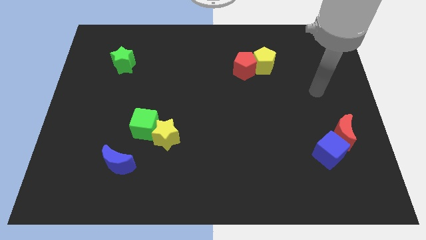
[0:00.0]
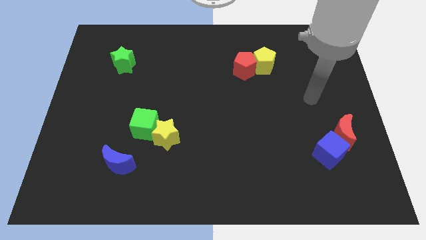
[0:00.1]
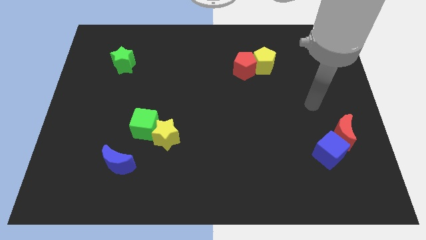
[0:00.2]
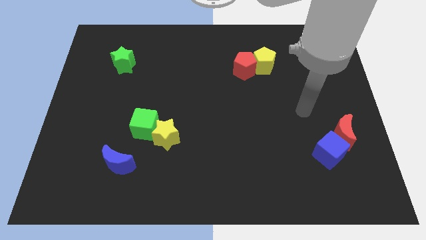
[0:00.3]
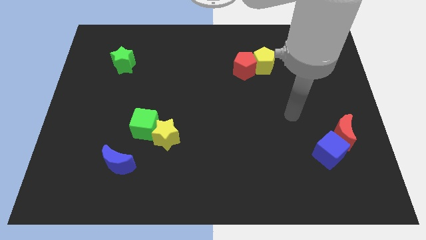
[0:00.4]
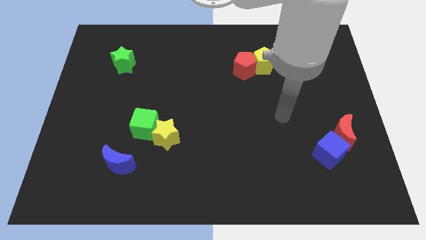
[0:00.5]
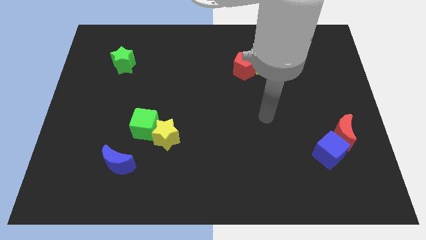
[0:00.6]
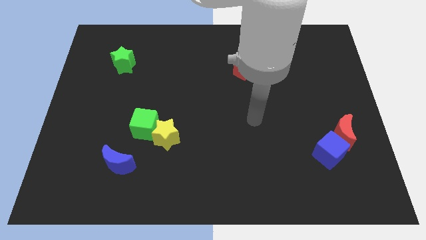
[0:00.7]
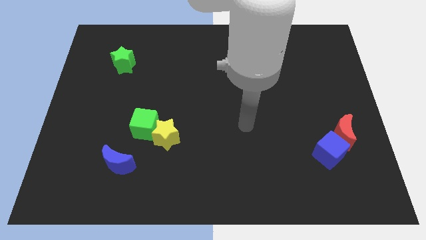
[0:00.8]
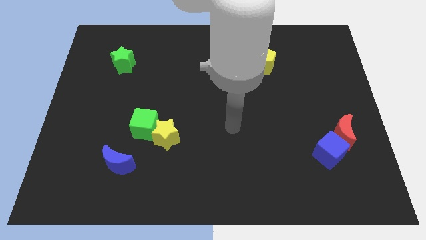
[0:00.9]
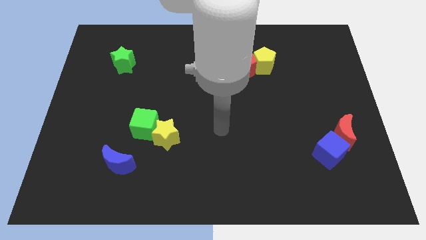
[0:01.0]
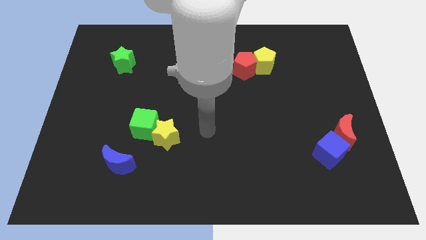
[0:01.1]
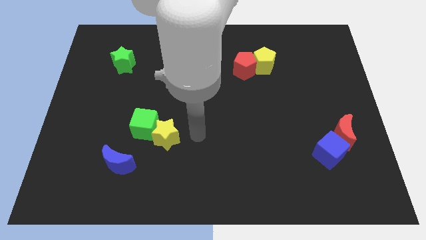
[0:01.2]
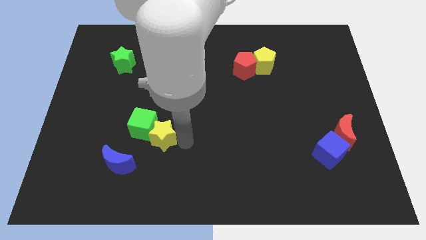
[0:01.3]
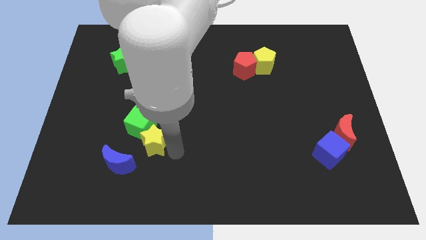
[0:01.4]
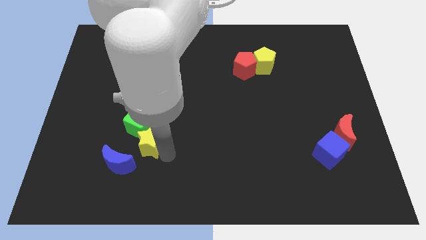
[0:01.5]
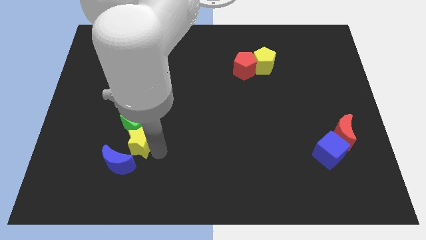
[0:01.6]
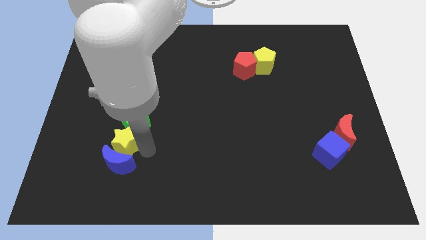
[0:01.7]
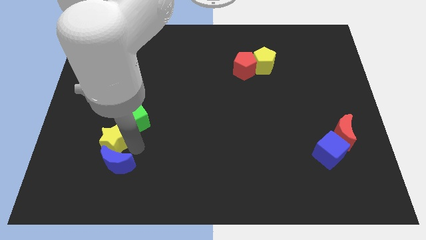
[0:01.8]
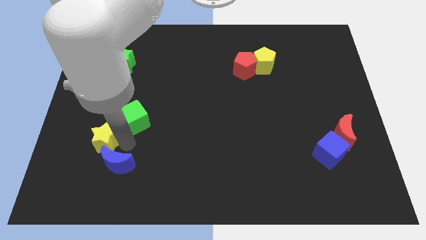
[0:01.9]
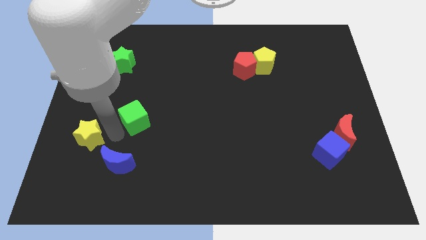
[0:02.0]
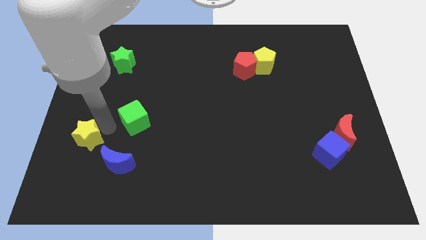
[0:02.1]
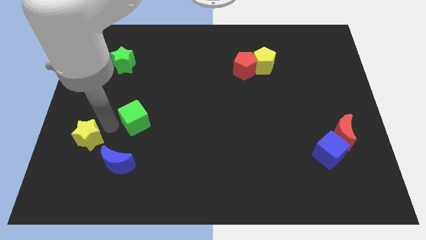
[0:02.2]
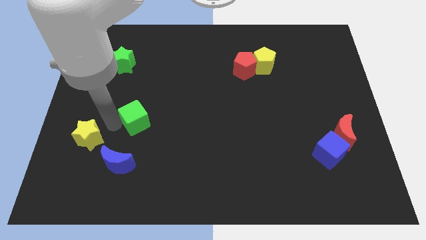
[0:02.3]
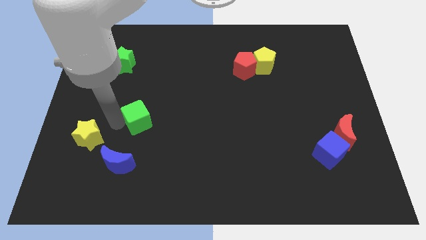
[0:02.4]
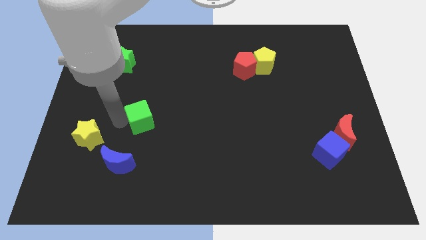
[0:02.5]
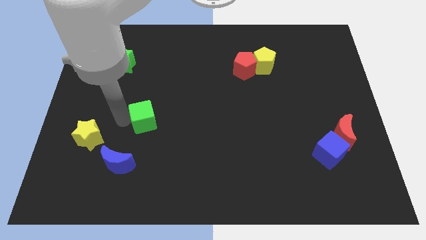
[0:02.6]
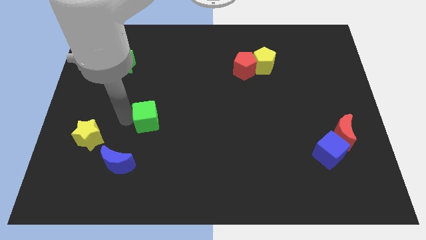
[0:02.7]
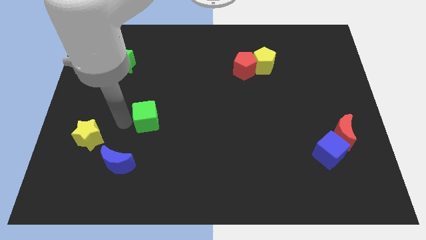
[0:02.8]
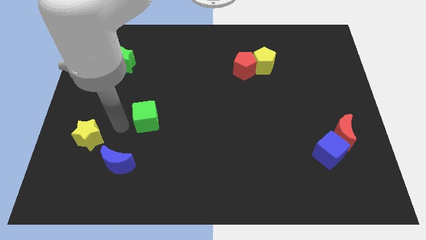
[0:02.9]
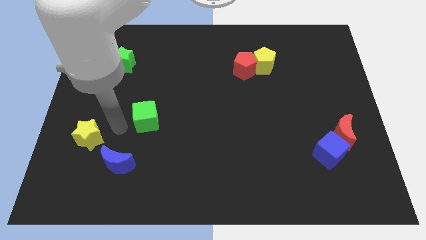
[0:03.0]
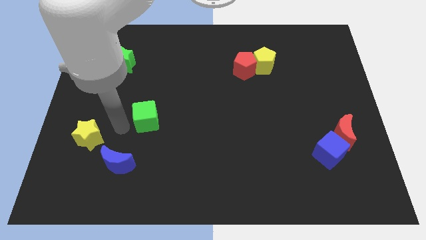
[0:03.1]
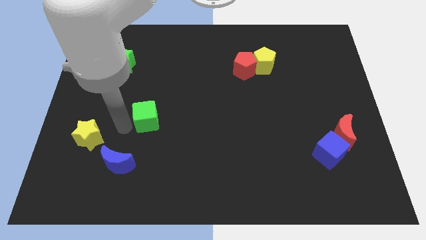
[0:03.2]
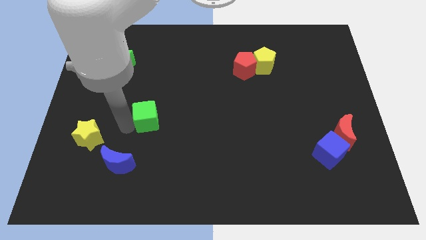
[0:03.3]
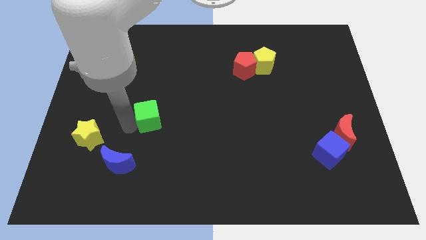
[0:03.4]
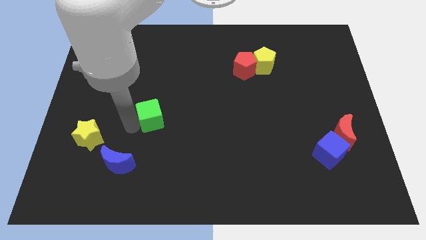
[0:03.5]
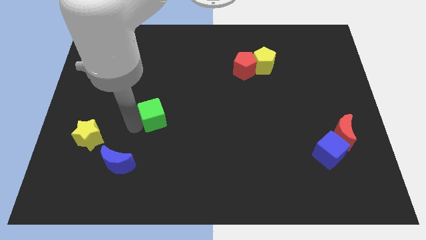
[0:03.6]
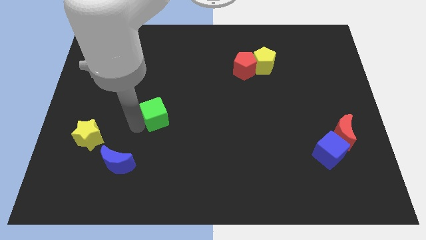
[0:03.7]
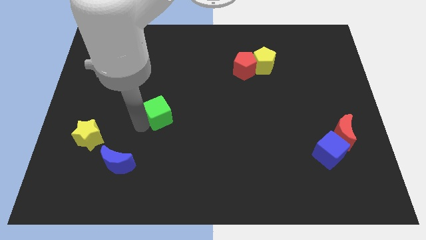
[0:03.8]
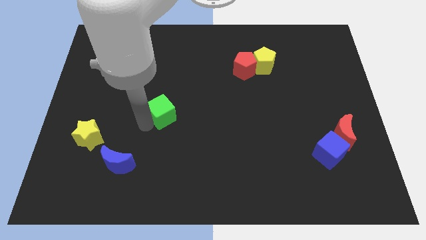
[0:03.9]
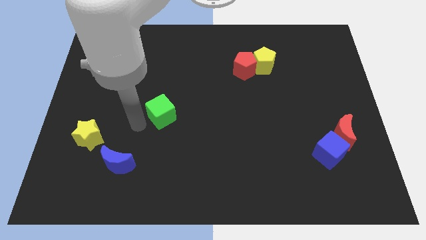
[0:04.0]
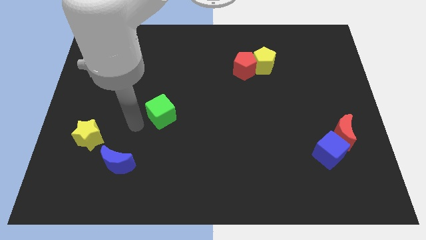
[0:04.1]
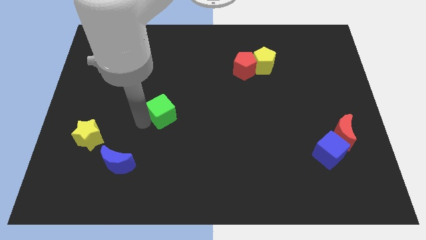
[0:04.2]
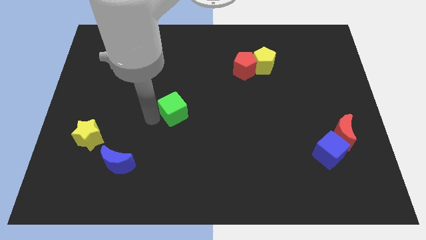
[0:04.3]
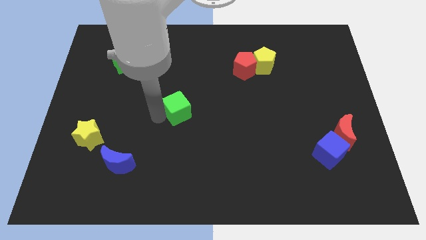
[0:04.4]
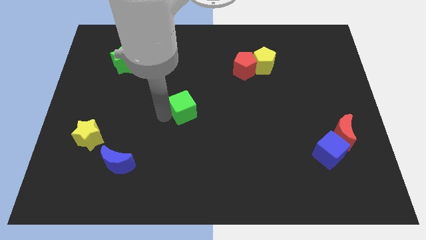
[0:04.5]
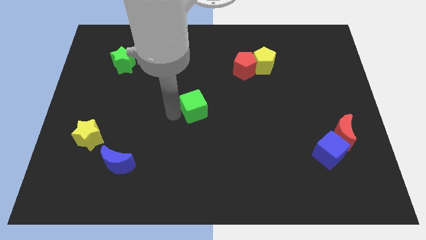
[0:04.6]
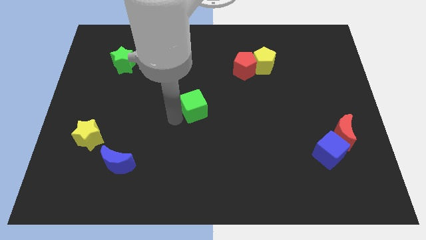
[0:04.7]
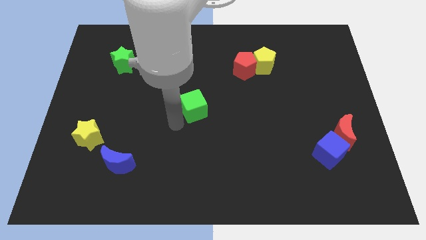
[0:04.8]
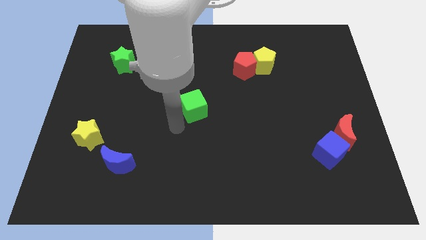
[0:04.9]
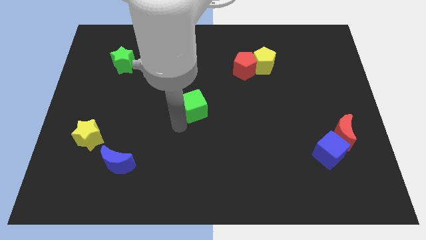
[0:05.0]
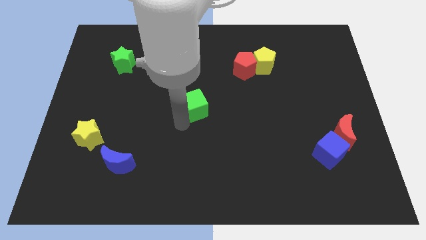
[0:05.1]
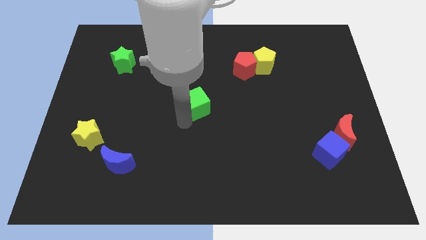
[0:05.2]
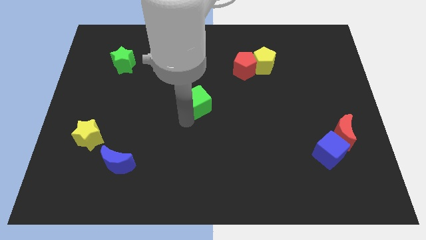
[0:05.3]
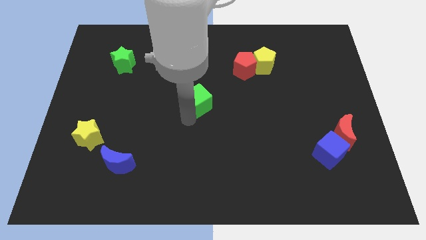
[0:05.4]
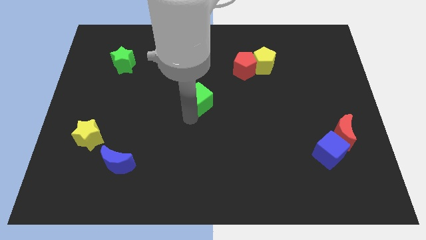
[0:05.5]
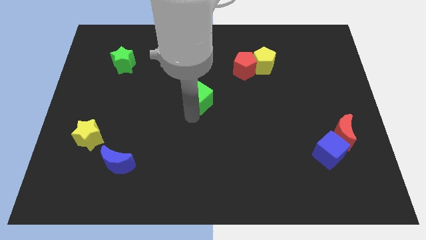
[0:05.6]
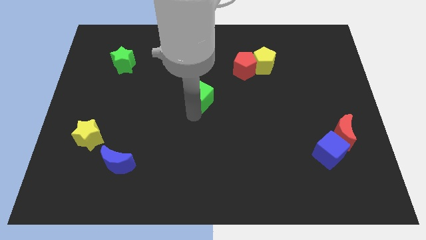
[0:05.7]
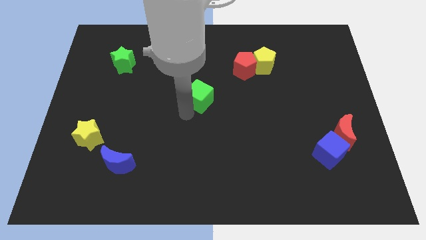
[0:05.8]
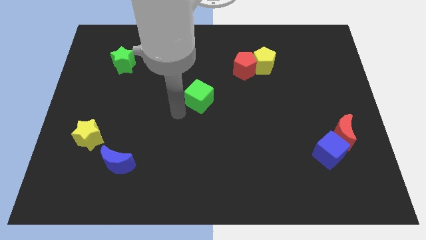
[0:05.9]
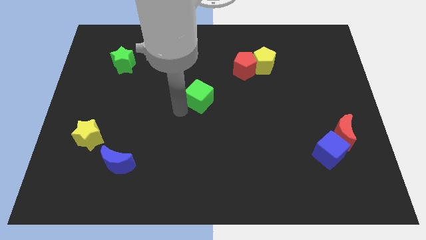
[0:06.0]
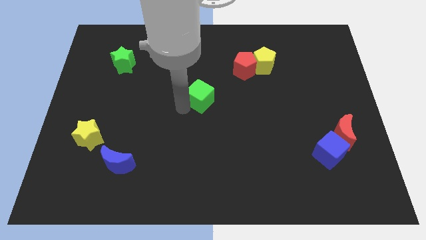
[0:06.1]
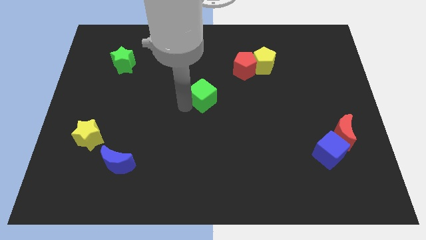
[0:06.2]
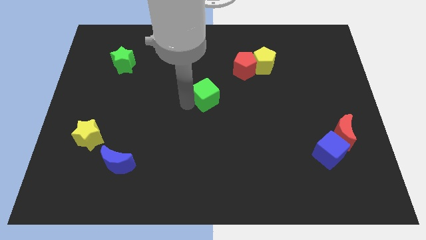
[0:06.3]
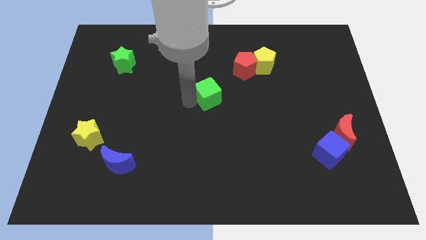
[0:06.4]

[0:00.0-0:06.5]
move the green cube to the bottom left side of the red pentagon

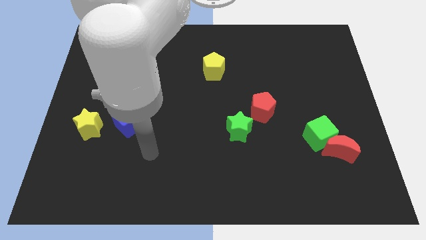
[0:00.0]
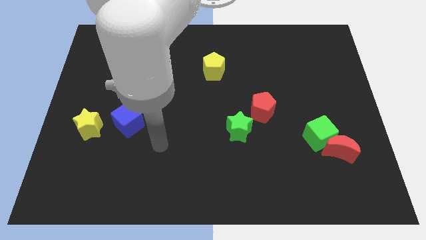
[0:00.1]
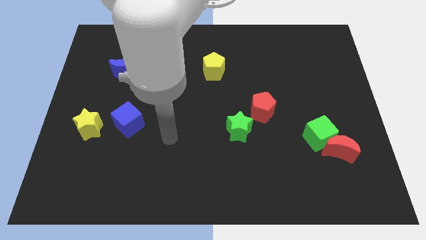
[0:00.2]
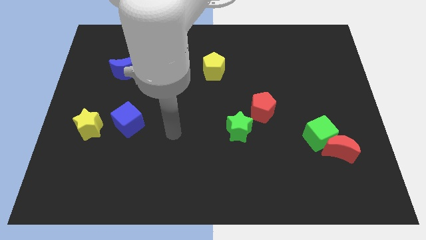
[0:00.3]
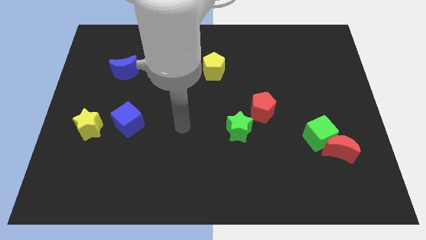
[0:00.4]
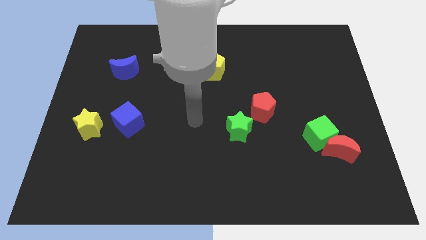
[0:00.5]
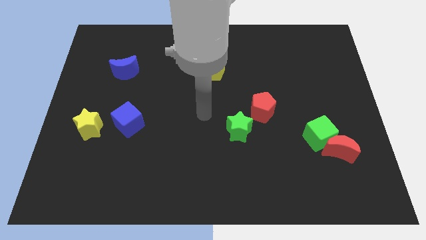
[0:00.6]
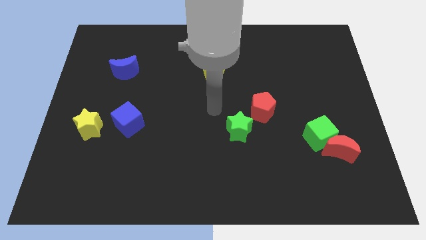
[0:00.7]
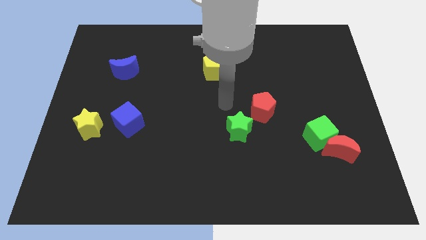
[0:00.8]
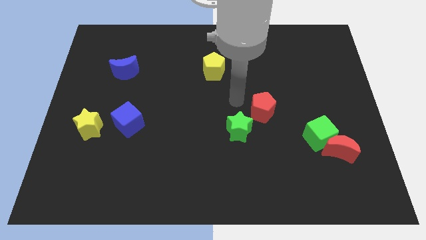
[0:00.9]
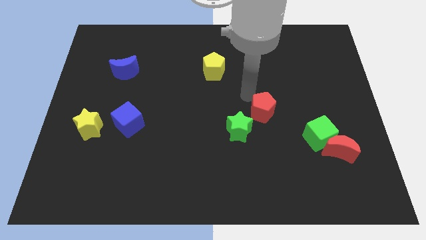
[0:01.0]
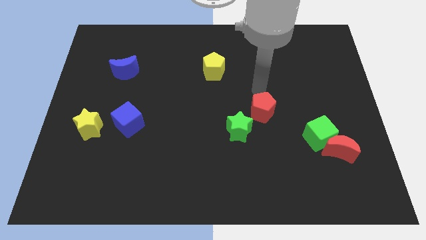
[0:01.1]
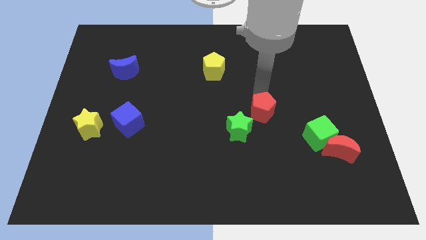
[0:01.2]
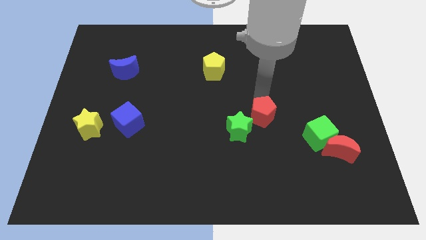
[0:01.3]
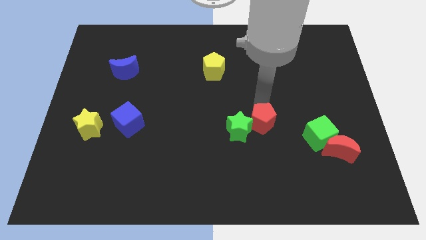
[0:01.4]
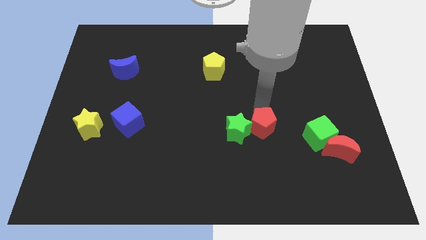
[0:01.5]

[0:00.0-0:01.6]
push the red pentagon diagonally down and to the right of the green star

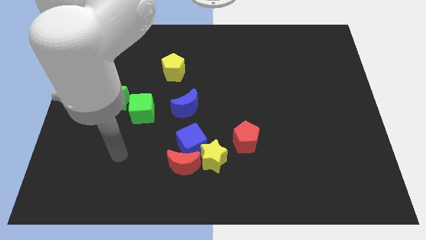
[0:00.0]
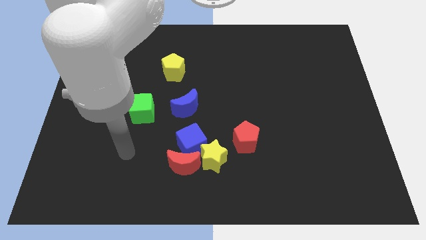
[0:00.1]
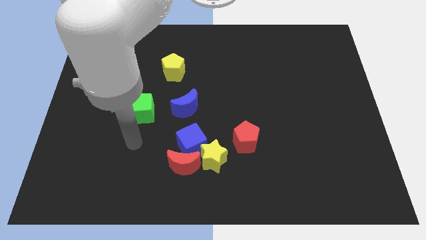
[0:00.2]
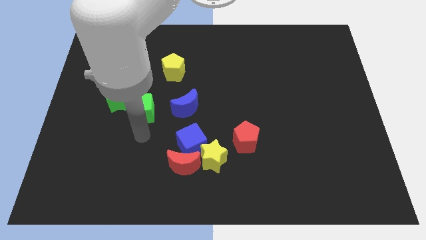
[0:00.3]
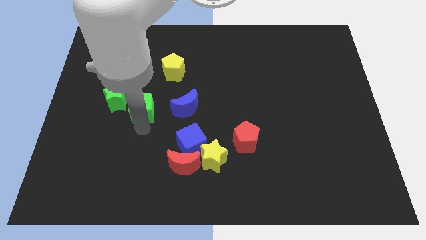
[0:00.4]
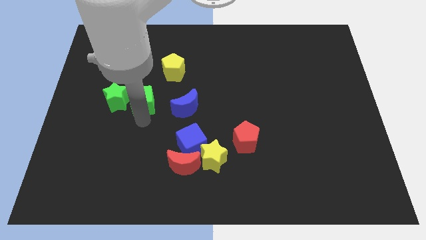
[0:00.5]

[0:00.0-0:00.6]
move the green cube to the top right of the green star
